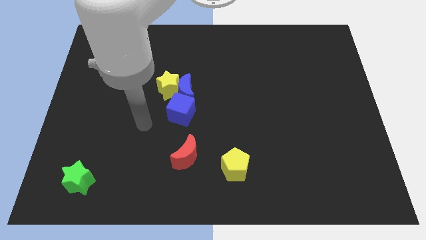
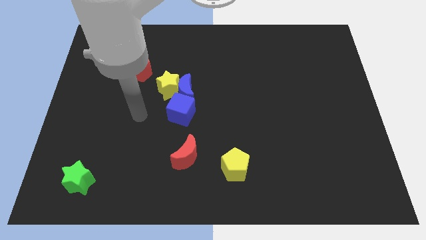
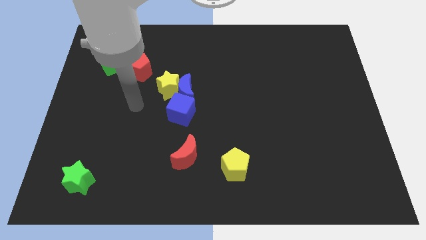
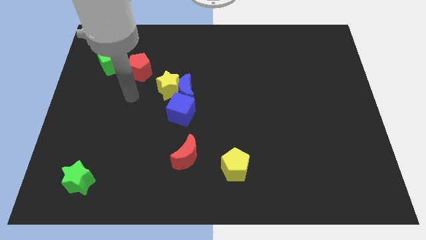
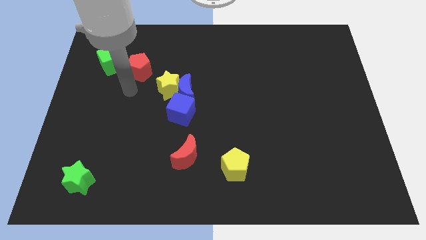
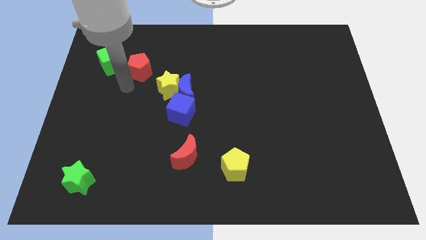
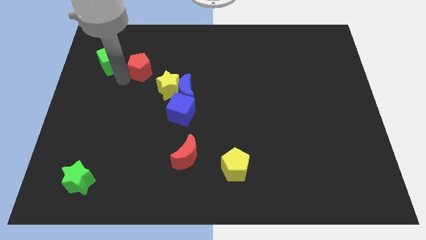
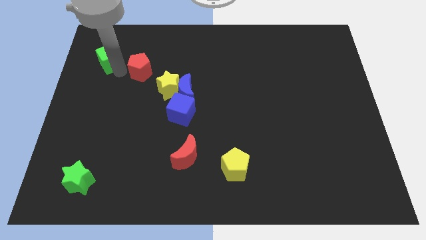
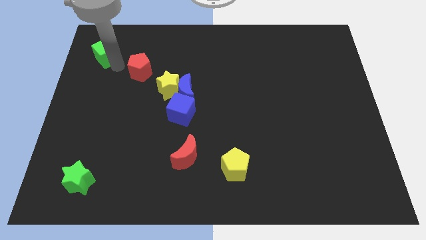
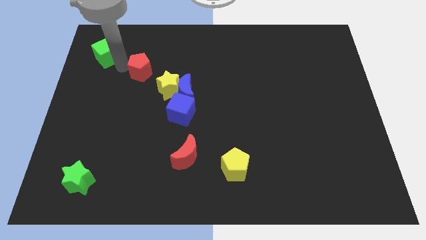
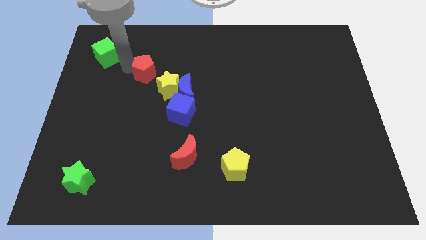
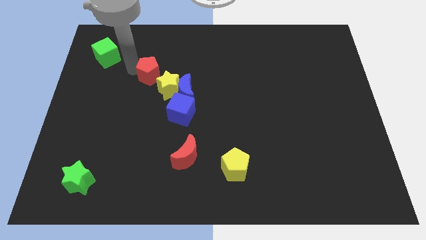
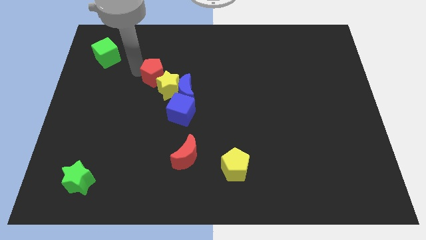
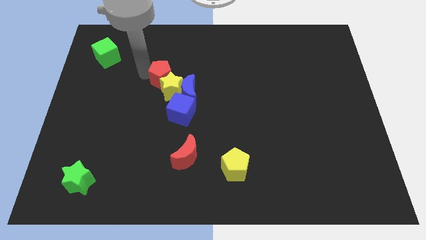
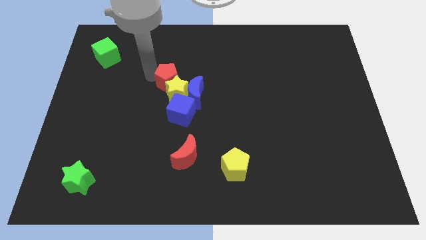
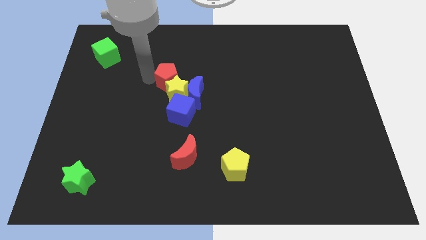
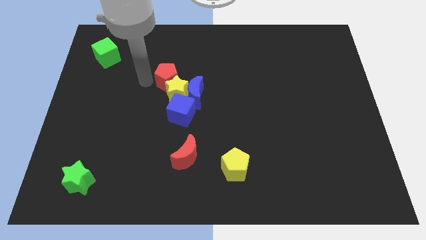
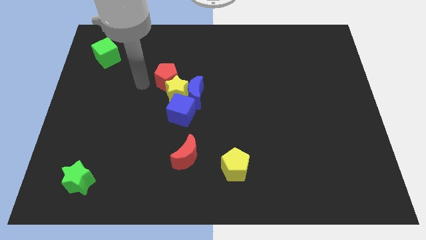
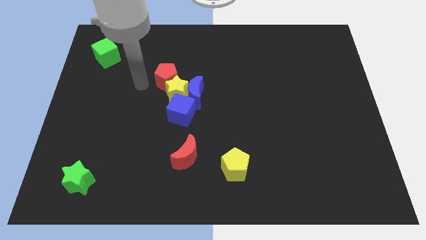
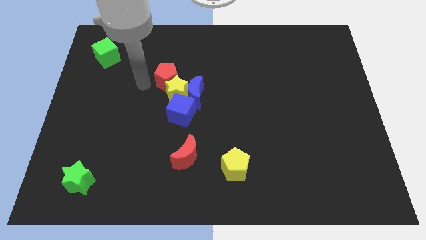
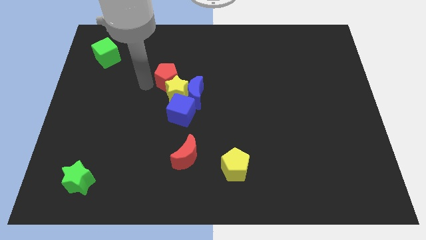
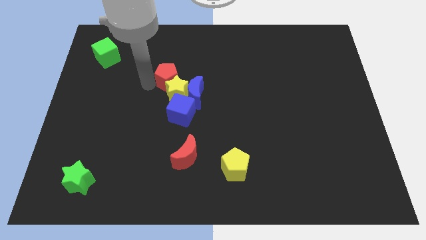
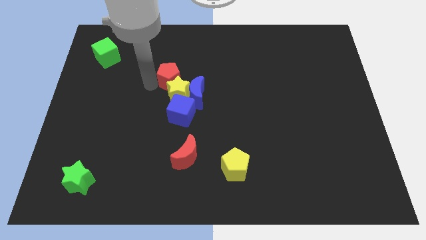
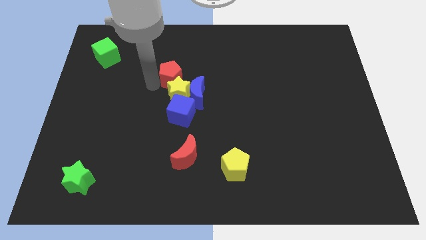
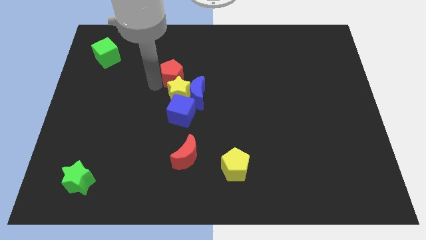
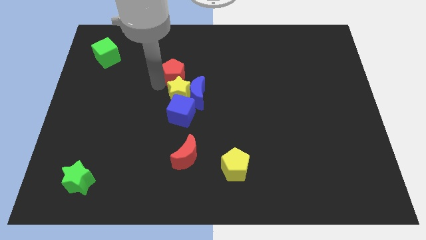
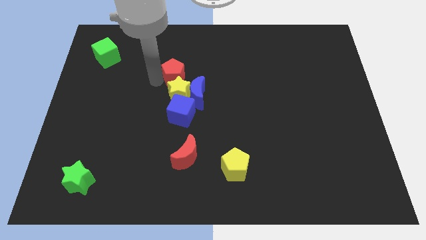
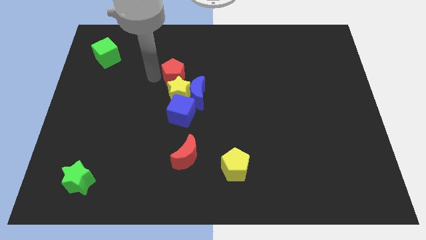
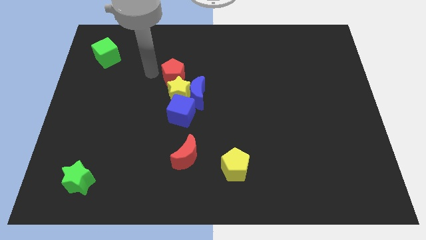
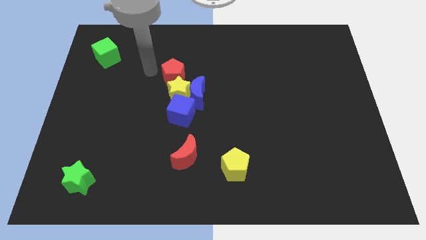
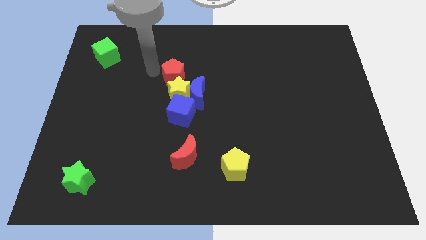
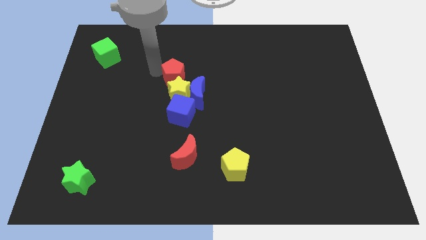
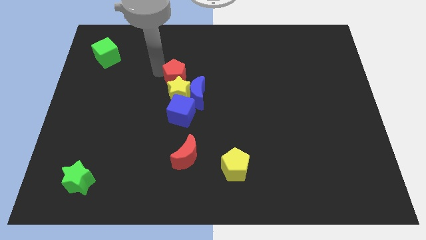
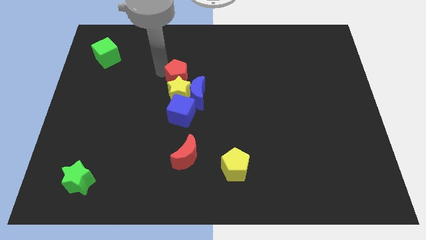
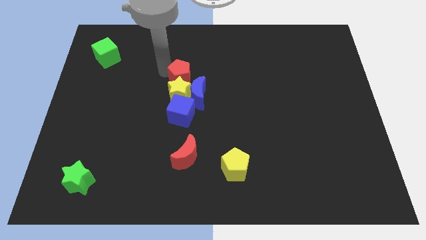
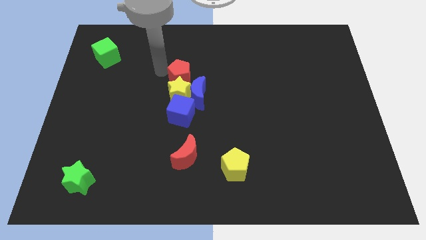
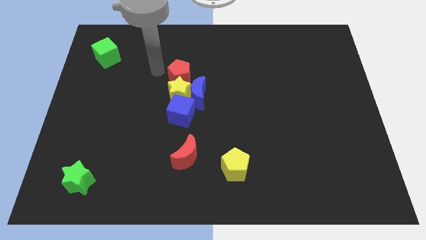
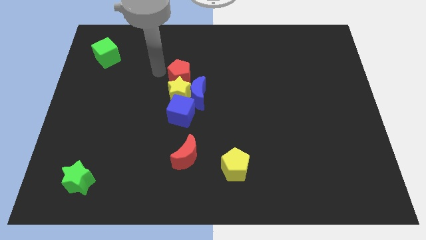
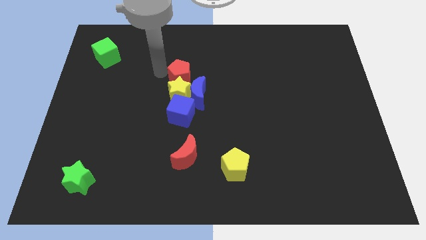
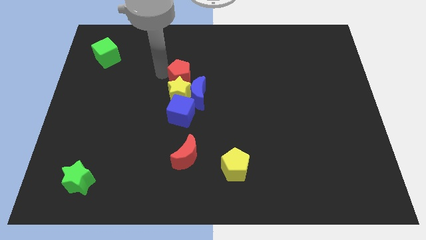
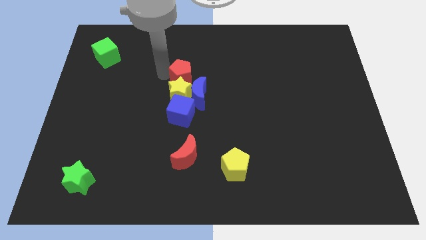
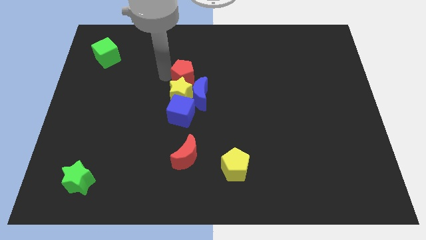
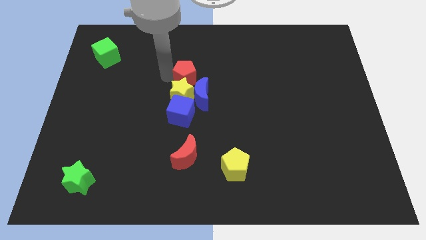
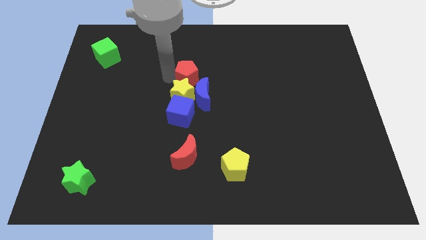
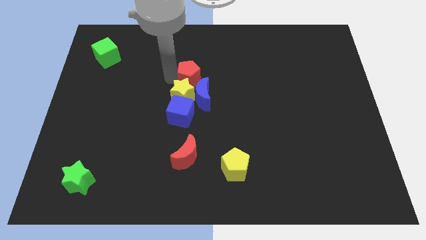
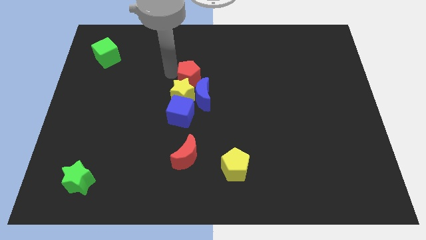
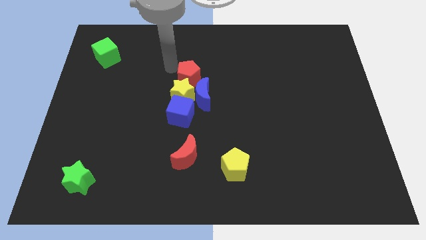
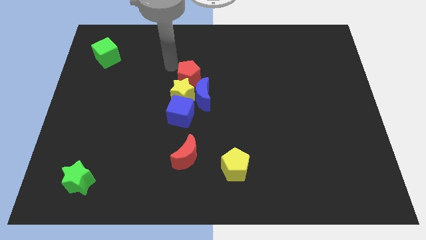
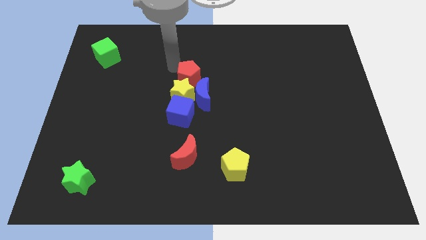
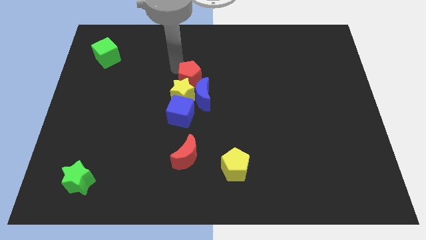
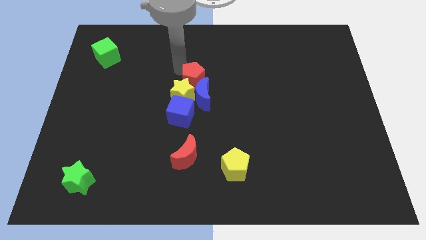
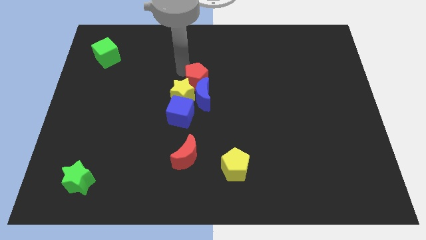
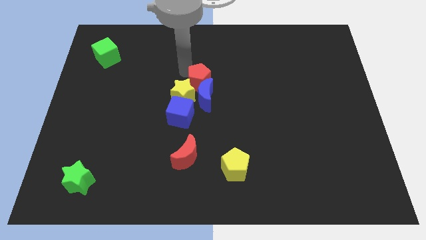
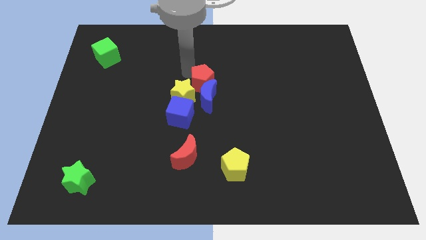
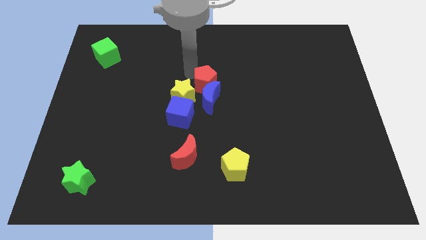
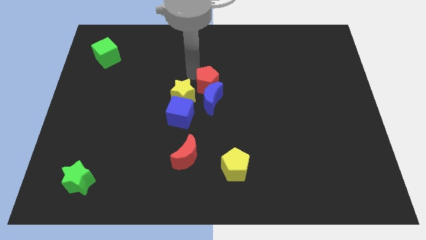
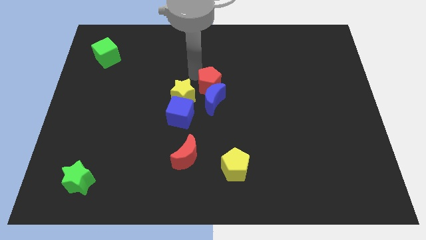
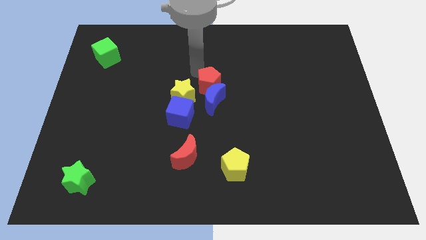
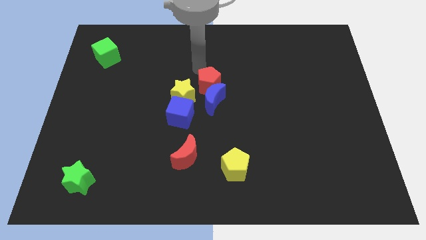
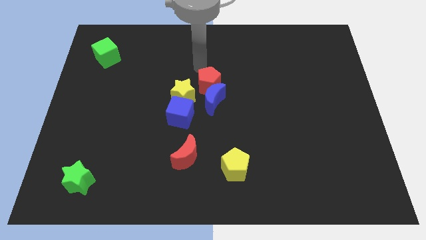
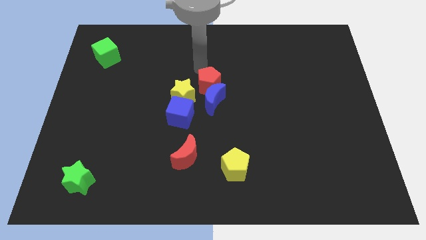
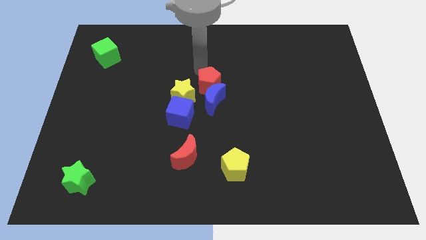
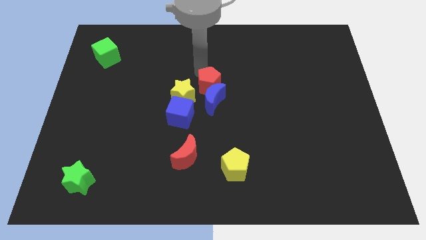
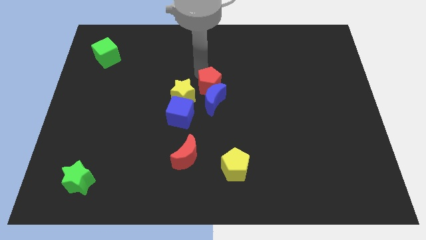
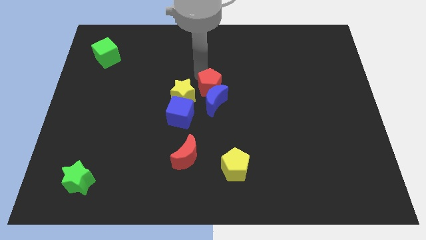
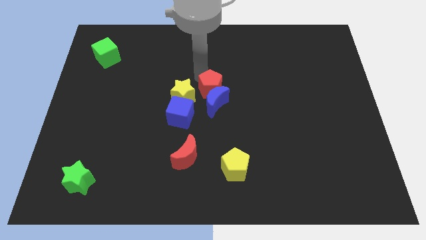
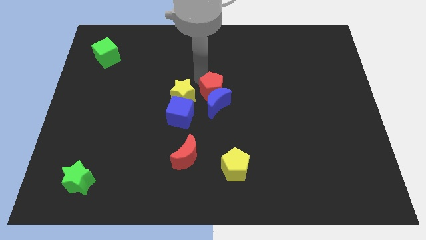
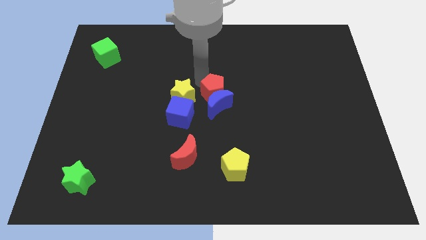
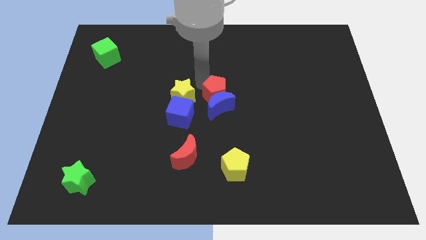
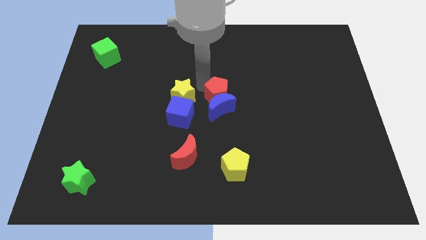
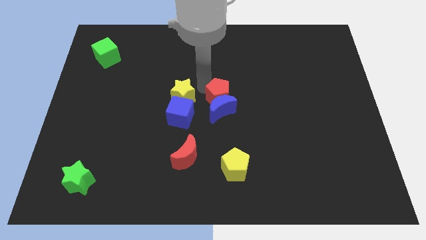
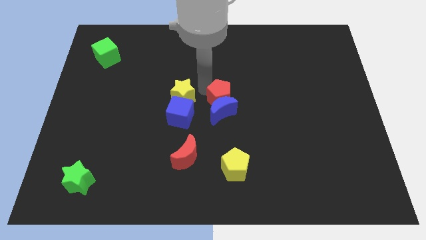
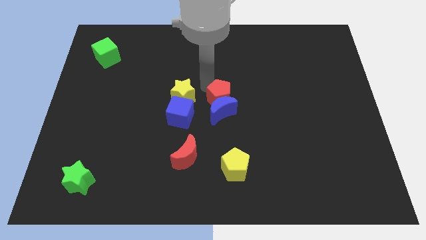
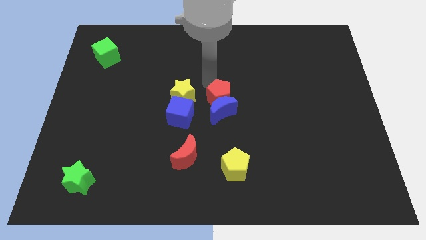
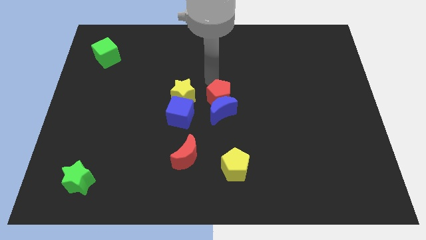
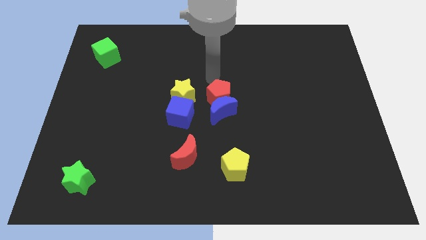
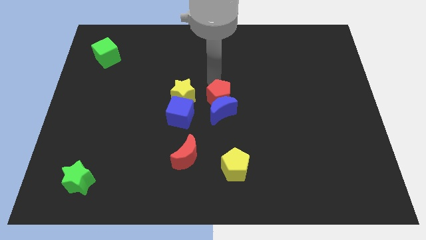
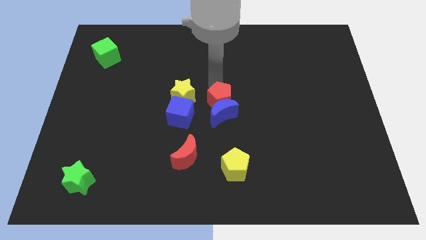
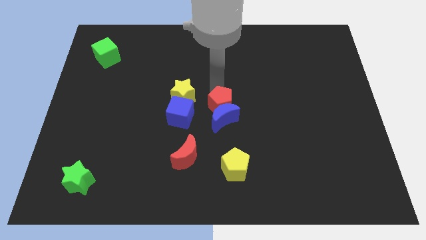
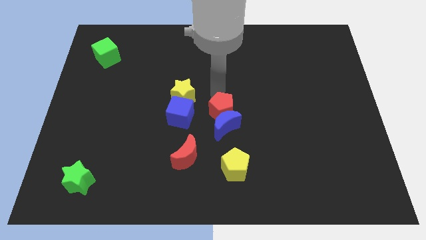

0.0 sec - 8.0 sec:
push the red pentagon to the top of the yellow pentagon
